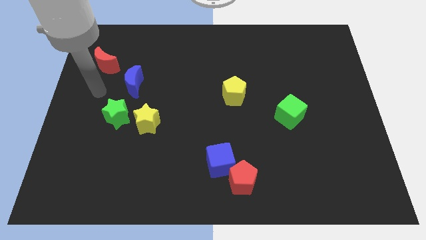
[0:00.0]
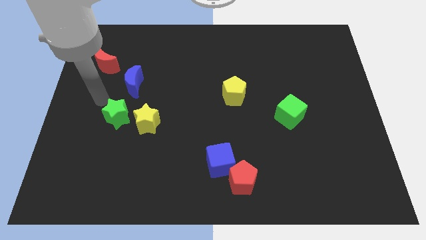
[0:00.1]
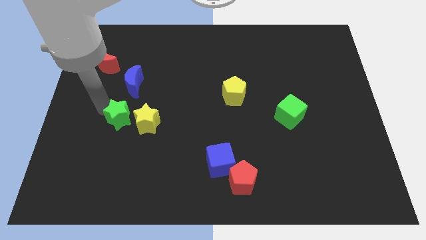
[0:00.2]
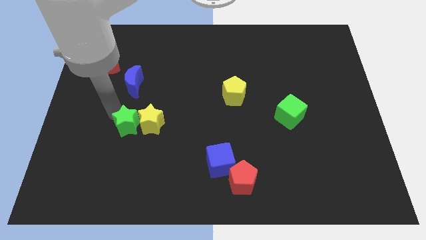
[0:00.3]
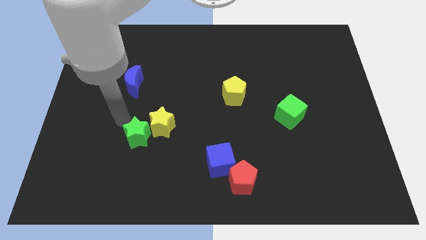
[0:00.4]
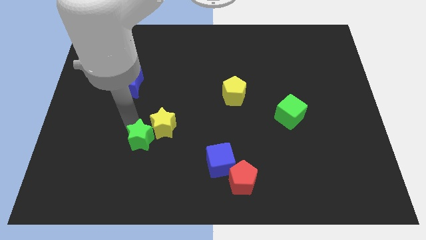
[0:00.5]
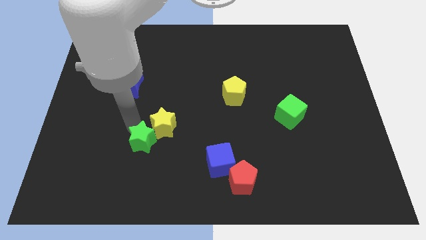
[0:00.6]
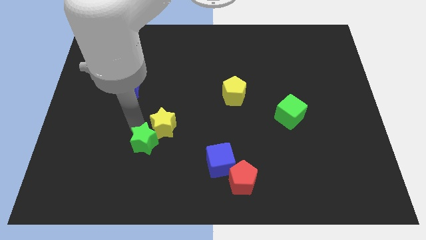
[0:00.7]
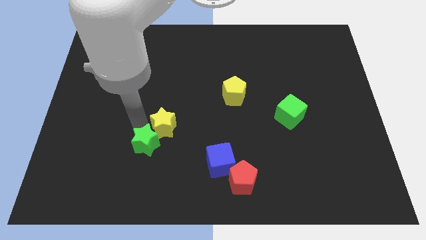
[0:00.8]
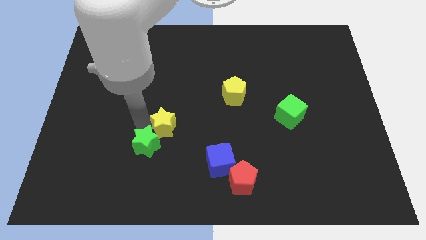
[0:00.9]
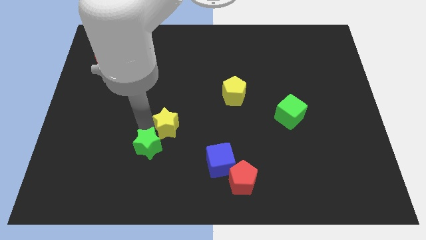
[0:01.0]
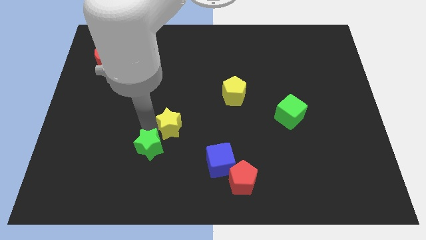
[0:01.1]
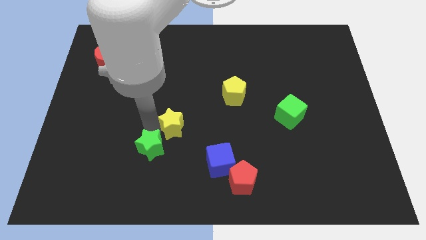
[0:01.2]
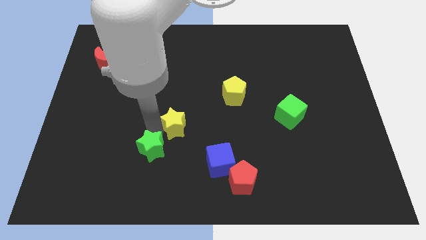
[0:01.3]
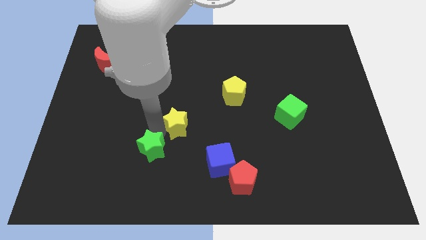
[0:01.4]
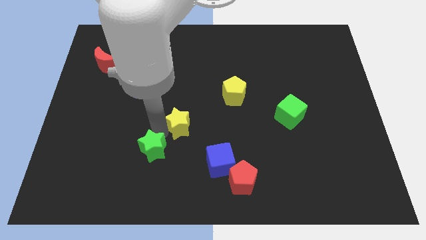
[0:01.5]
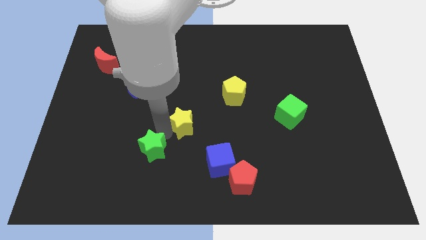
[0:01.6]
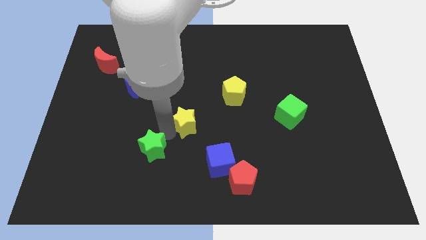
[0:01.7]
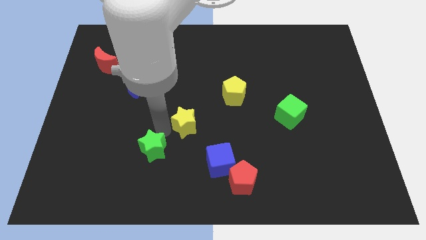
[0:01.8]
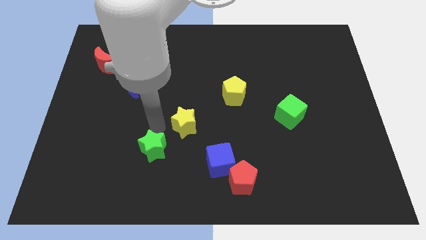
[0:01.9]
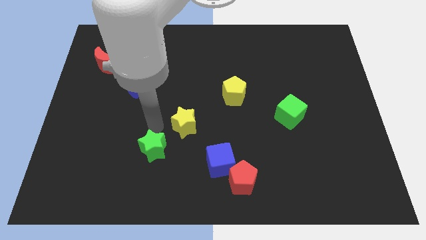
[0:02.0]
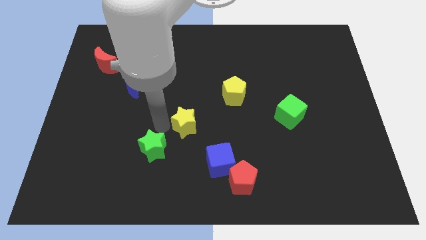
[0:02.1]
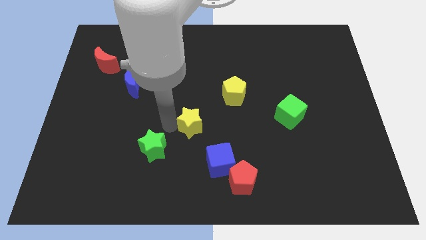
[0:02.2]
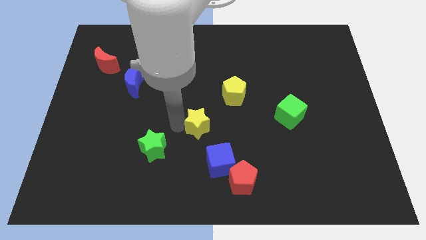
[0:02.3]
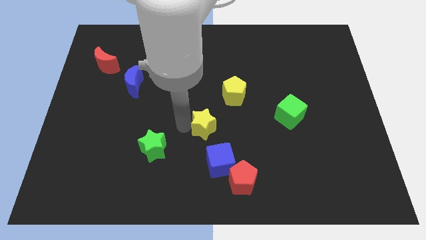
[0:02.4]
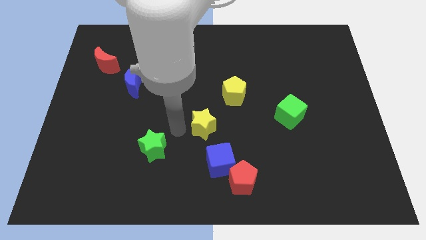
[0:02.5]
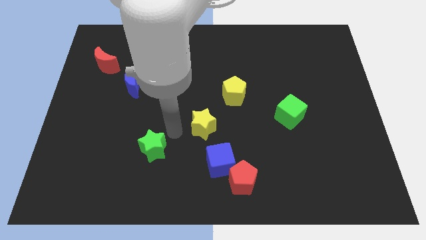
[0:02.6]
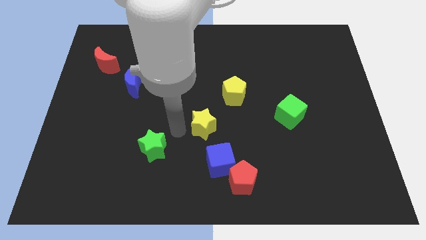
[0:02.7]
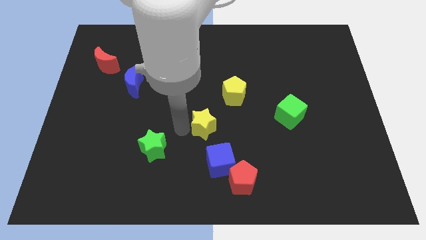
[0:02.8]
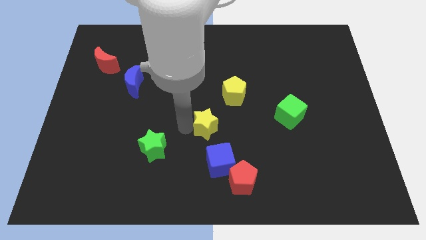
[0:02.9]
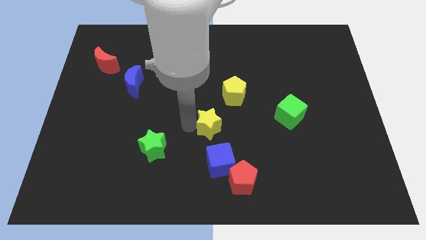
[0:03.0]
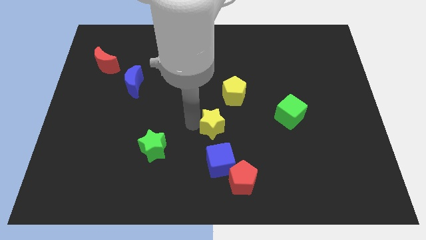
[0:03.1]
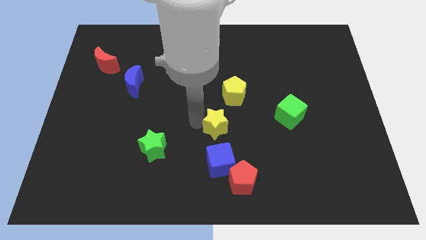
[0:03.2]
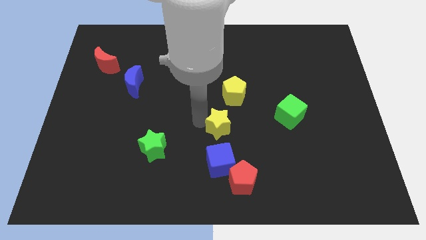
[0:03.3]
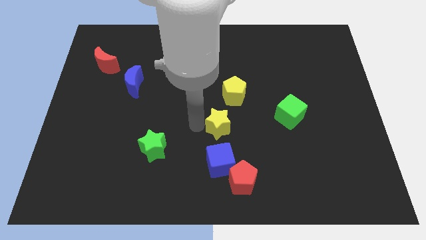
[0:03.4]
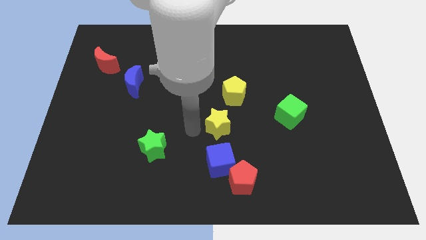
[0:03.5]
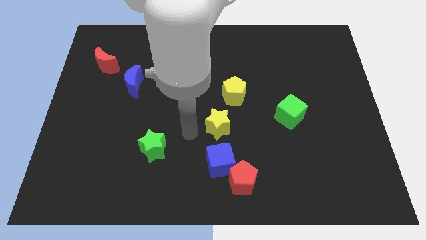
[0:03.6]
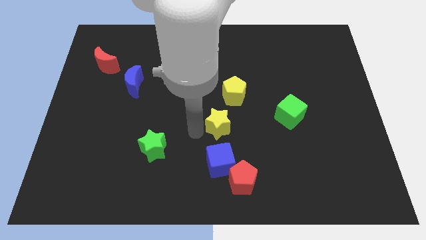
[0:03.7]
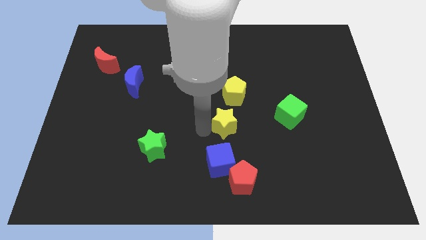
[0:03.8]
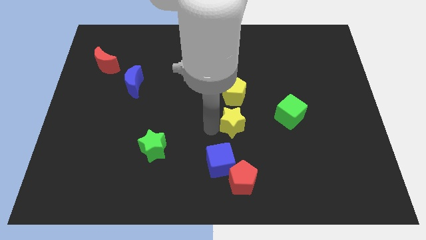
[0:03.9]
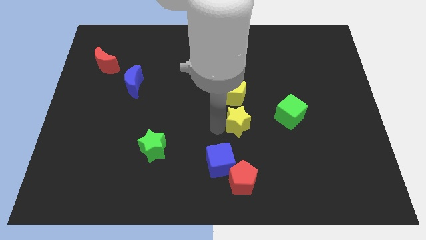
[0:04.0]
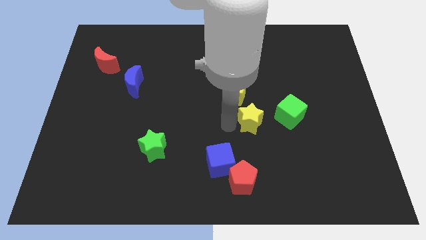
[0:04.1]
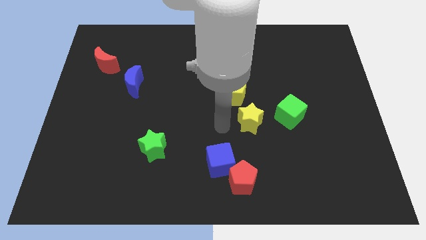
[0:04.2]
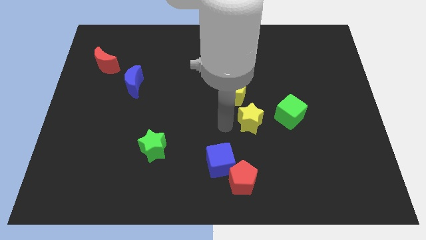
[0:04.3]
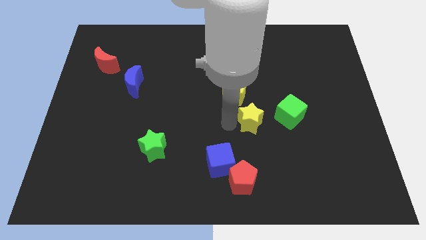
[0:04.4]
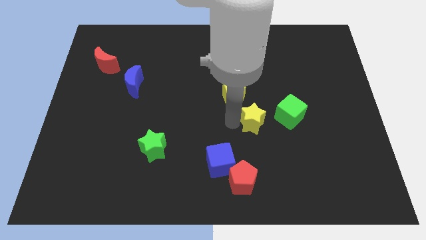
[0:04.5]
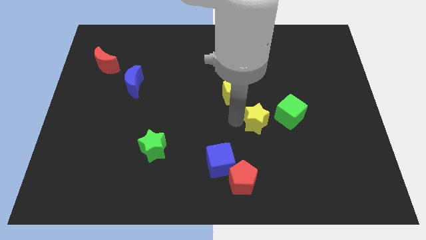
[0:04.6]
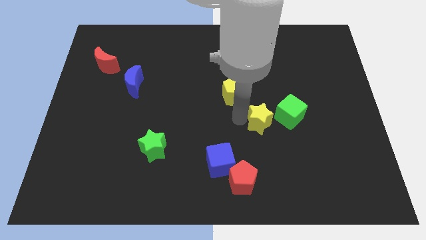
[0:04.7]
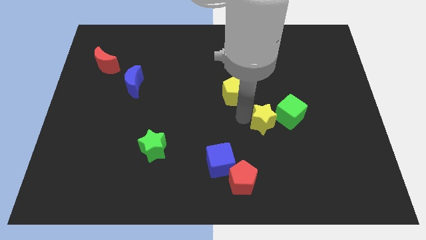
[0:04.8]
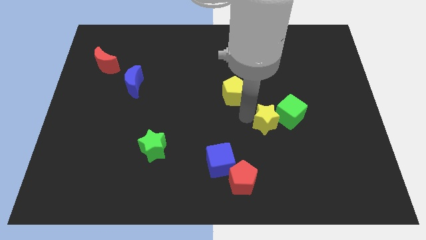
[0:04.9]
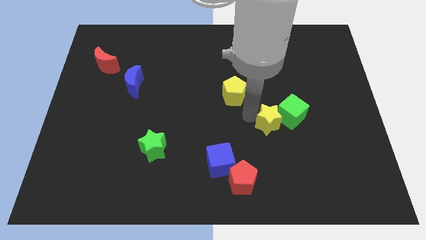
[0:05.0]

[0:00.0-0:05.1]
put the yellow star to the green cube

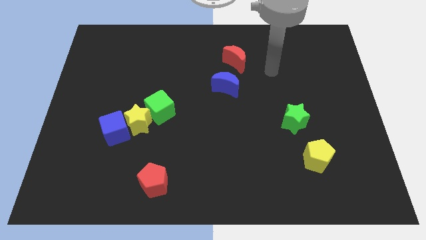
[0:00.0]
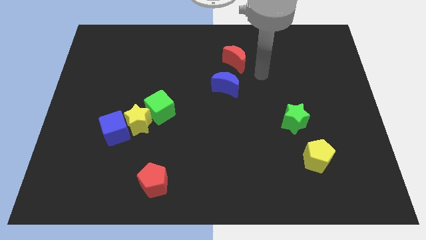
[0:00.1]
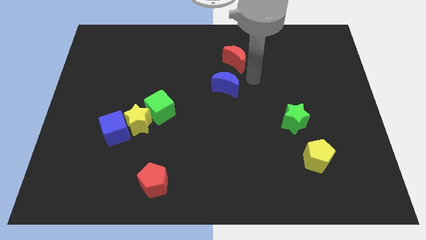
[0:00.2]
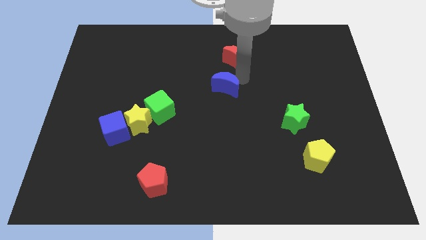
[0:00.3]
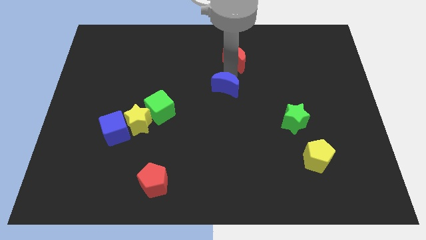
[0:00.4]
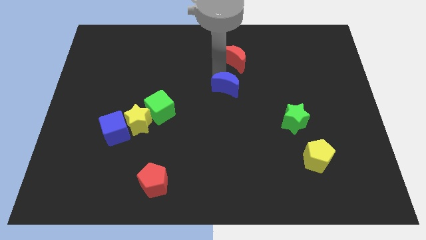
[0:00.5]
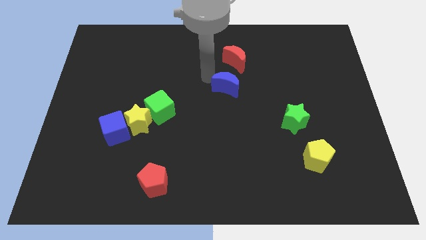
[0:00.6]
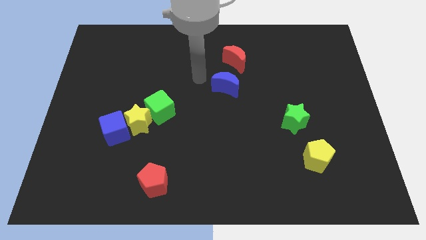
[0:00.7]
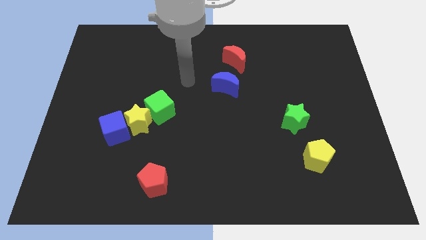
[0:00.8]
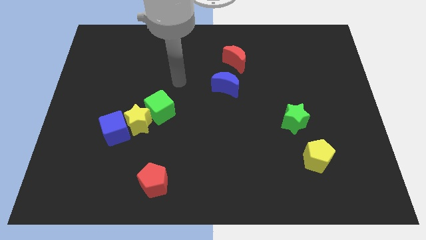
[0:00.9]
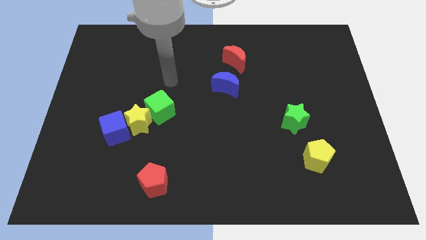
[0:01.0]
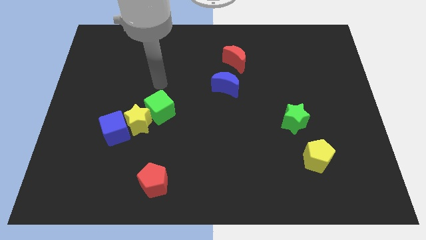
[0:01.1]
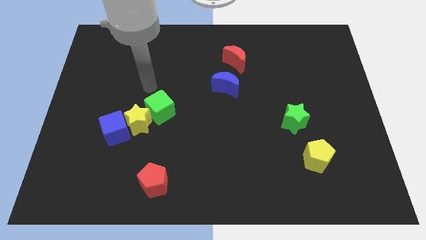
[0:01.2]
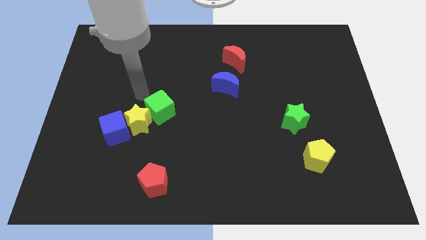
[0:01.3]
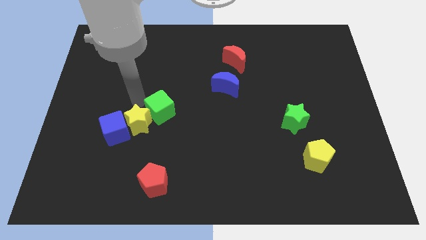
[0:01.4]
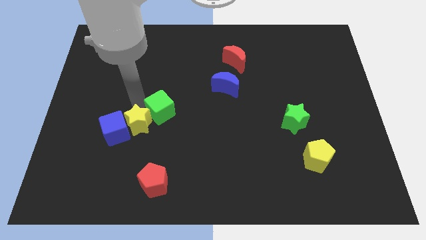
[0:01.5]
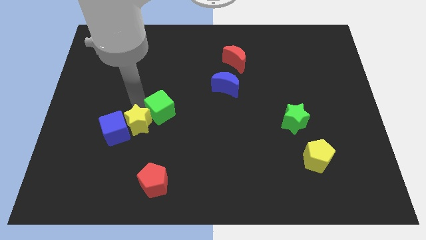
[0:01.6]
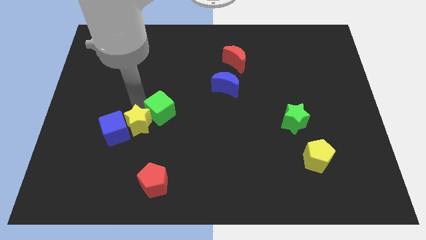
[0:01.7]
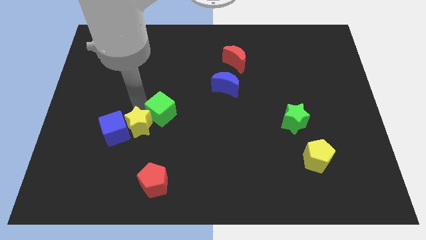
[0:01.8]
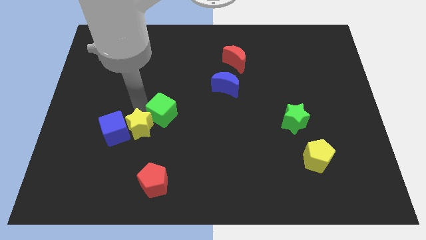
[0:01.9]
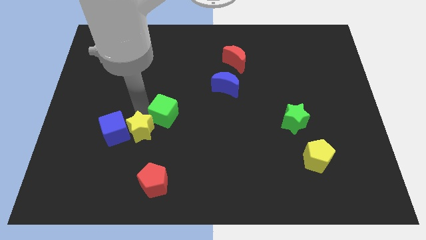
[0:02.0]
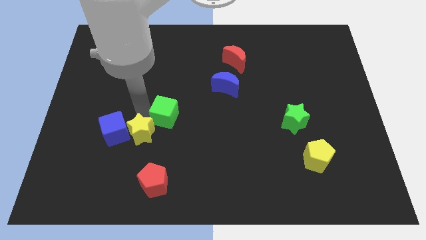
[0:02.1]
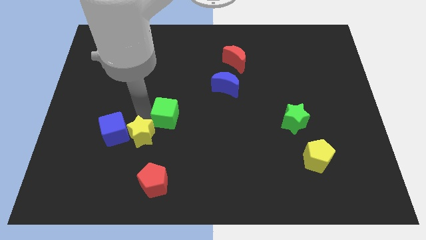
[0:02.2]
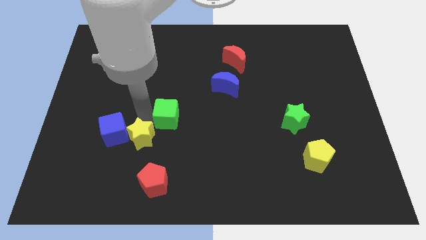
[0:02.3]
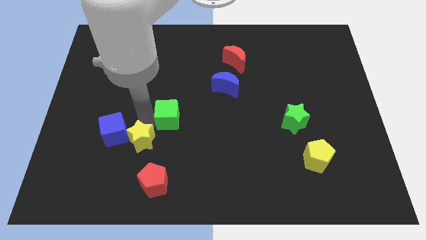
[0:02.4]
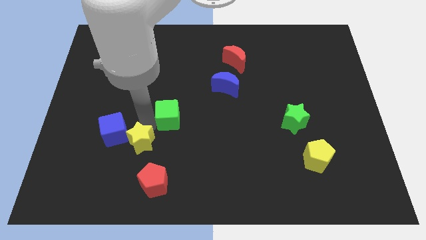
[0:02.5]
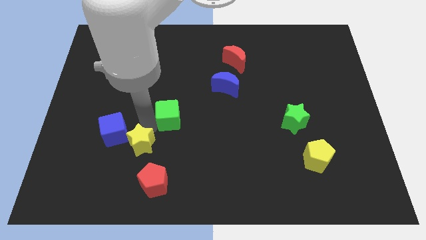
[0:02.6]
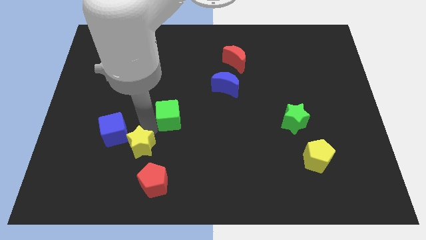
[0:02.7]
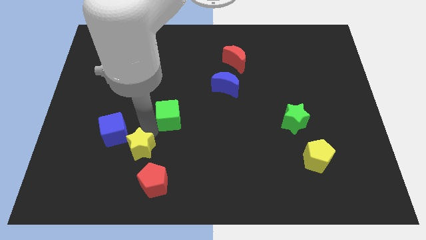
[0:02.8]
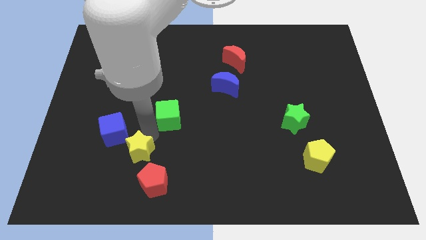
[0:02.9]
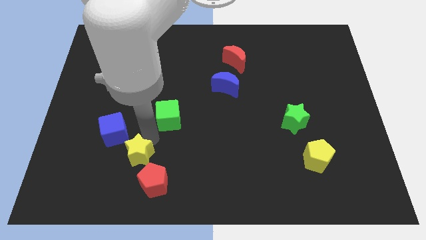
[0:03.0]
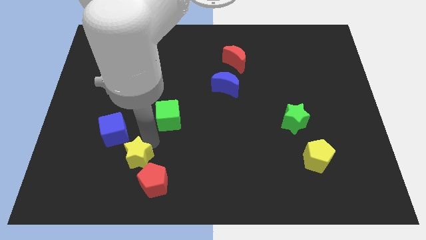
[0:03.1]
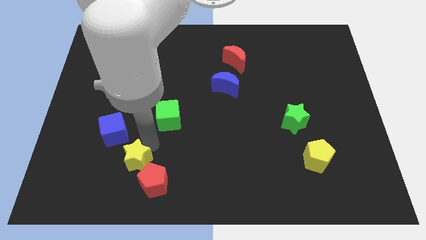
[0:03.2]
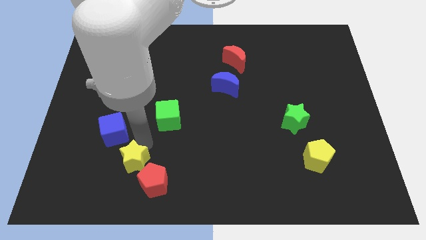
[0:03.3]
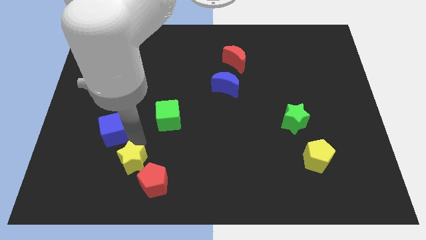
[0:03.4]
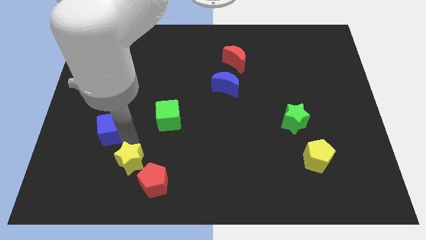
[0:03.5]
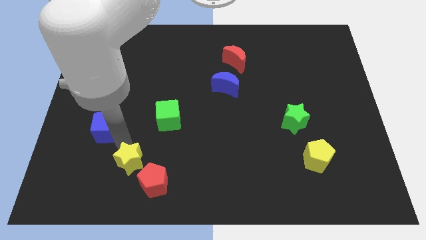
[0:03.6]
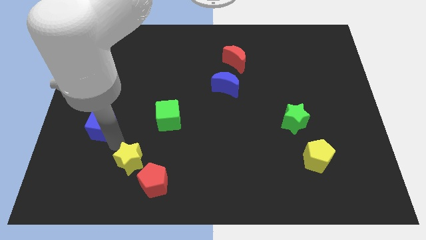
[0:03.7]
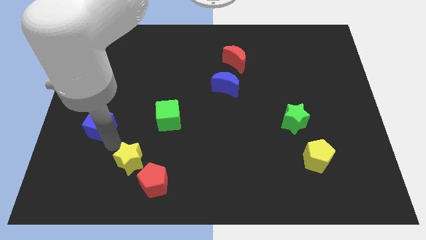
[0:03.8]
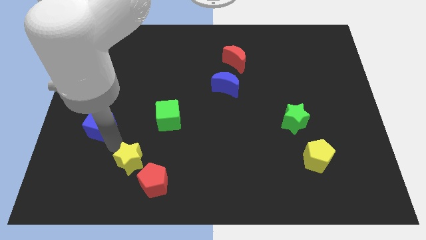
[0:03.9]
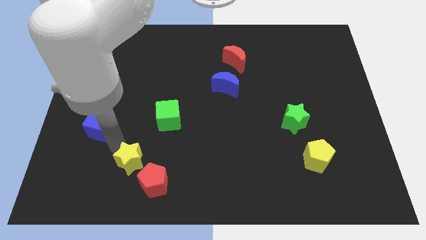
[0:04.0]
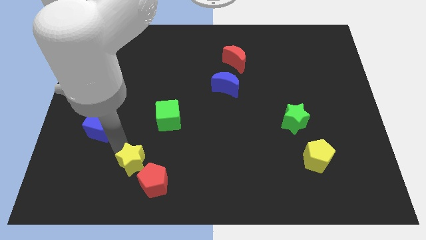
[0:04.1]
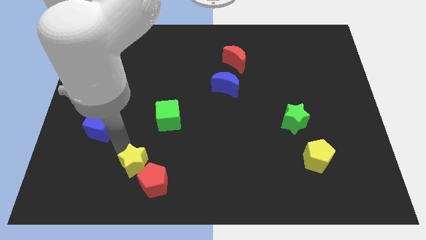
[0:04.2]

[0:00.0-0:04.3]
push the yellow star to the red pentagon
